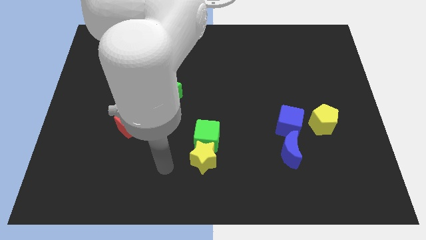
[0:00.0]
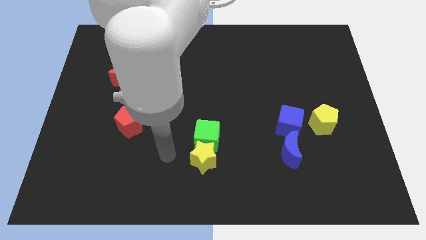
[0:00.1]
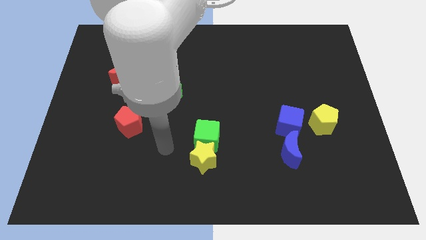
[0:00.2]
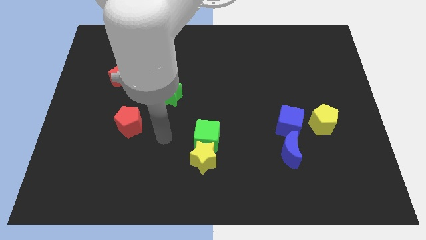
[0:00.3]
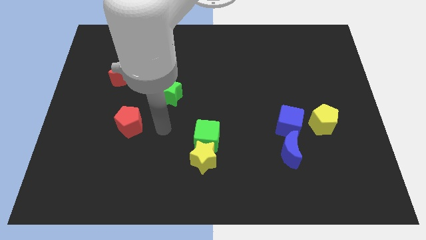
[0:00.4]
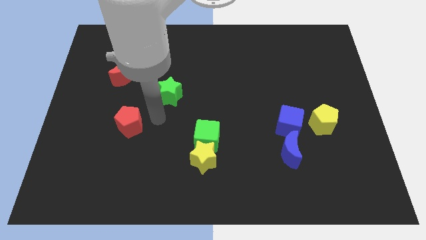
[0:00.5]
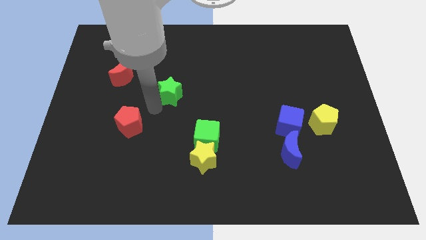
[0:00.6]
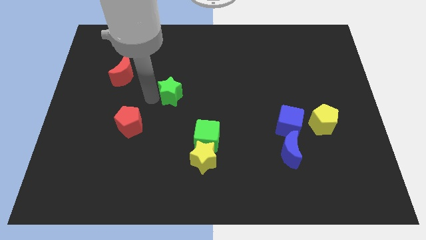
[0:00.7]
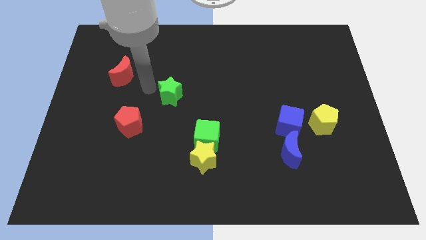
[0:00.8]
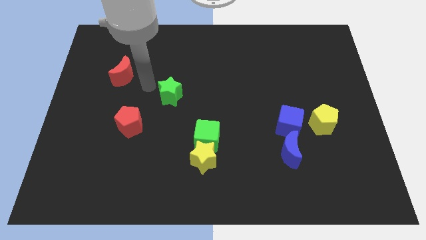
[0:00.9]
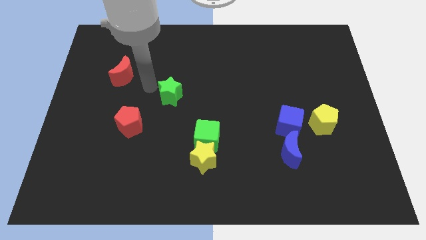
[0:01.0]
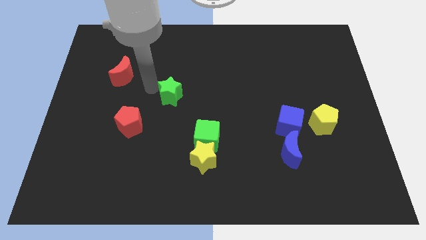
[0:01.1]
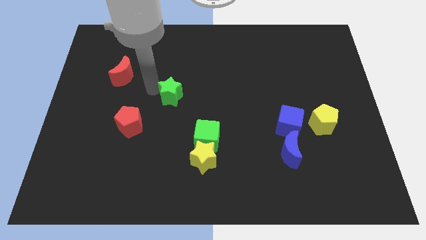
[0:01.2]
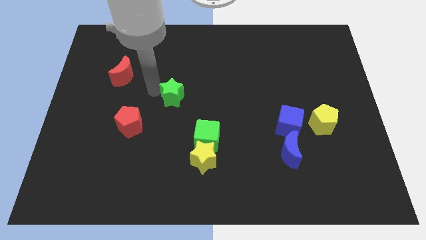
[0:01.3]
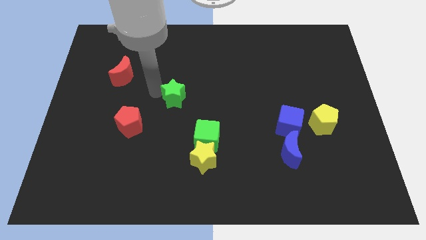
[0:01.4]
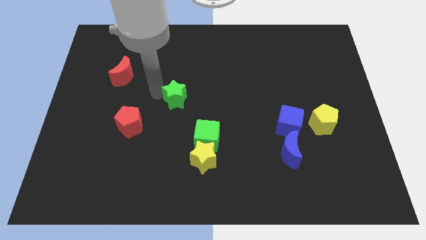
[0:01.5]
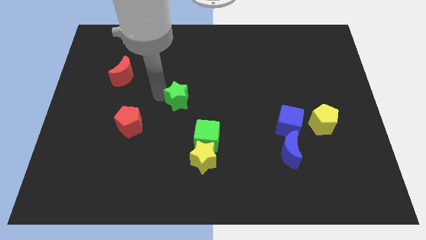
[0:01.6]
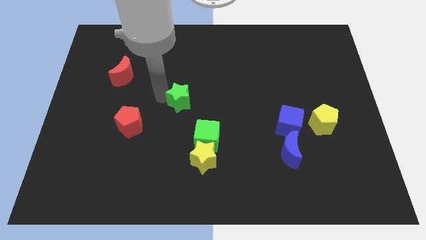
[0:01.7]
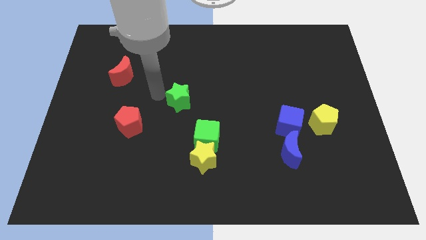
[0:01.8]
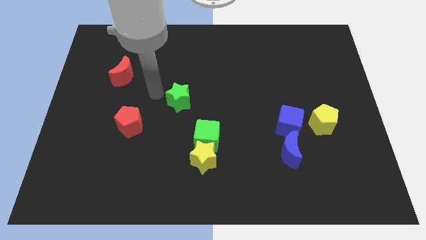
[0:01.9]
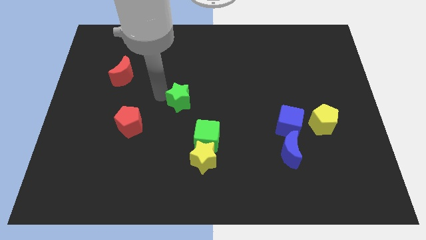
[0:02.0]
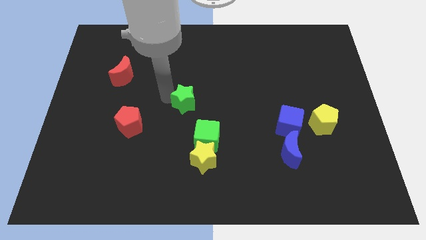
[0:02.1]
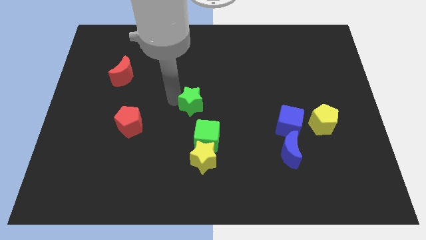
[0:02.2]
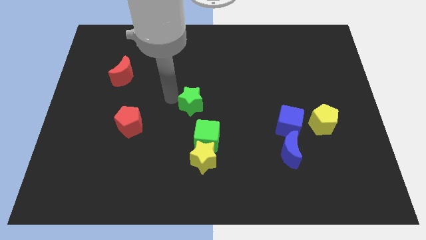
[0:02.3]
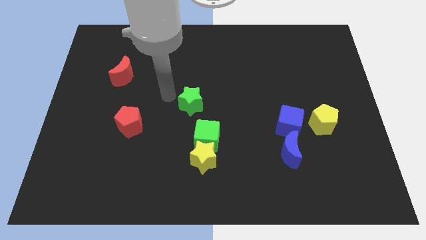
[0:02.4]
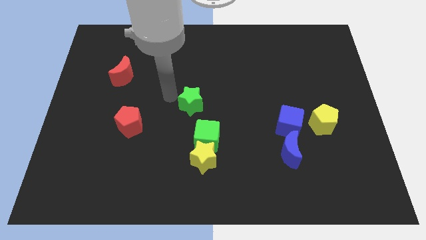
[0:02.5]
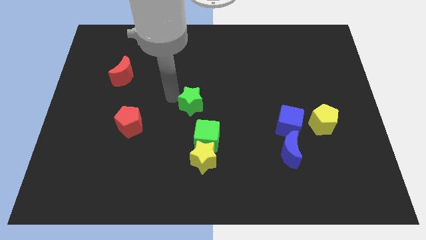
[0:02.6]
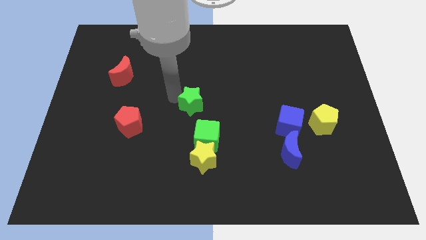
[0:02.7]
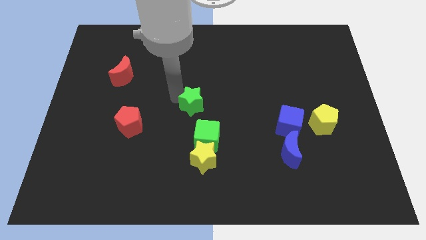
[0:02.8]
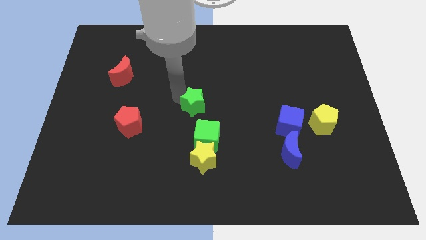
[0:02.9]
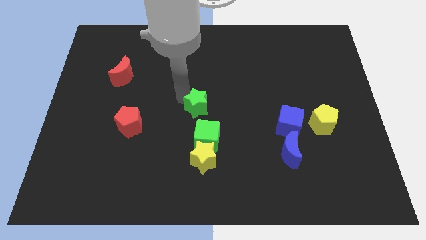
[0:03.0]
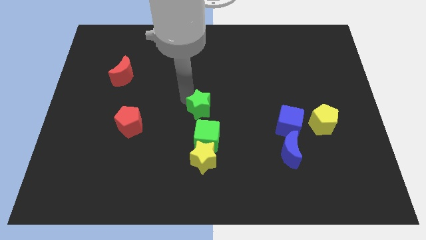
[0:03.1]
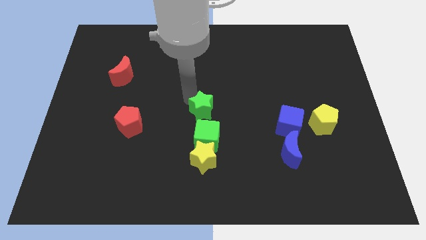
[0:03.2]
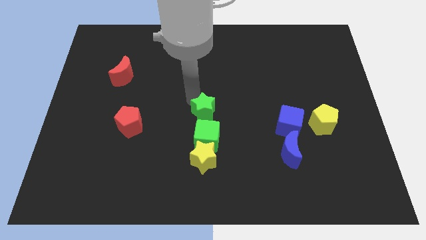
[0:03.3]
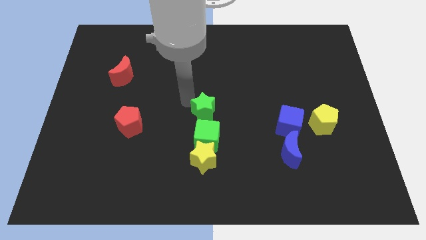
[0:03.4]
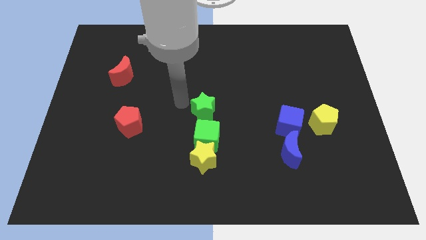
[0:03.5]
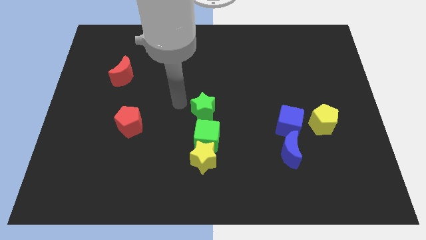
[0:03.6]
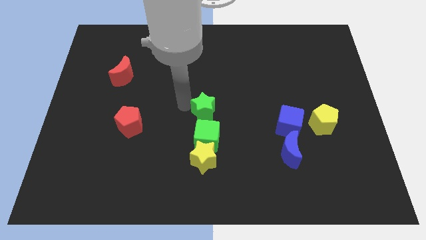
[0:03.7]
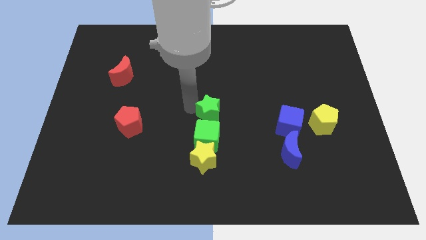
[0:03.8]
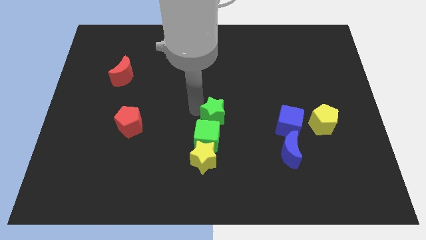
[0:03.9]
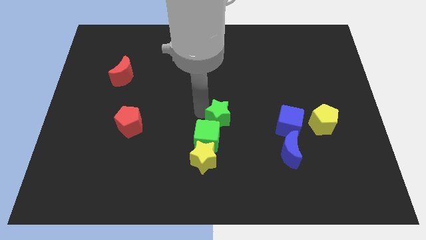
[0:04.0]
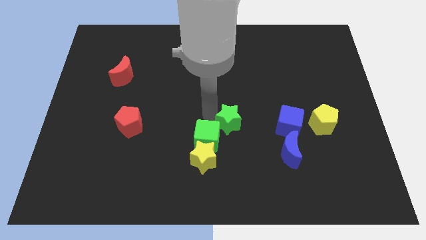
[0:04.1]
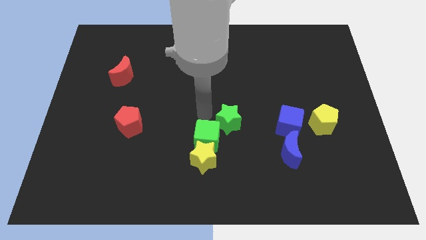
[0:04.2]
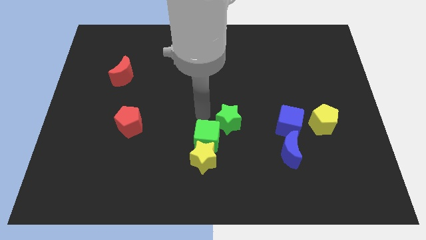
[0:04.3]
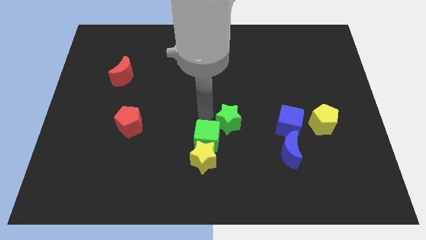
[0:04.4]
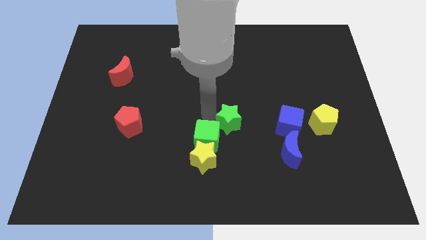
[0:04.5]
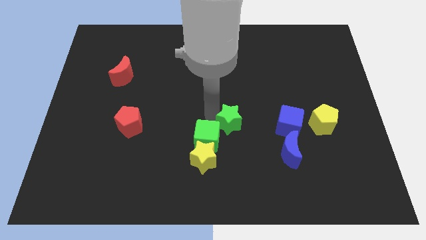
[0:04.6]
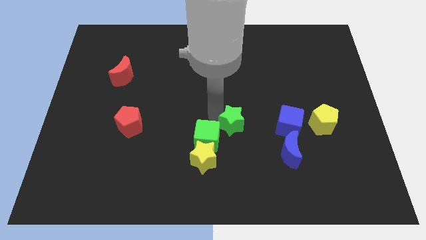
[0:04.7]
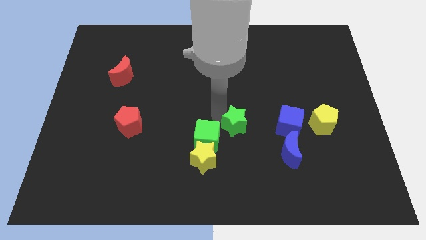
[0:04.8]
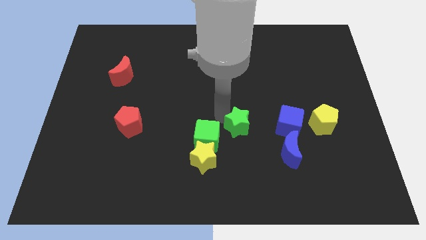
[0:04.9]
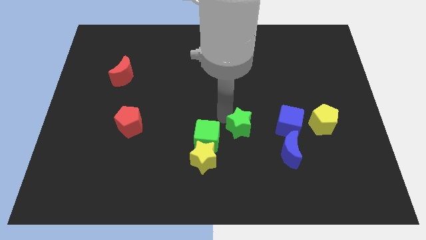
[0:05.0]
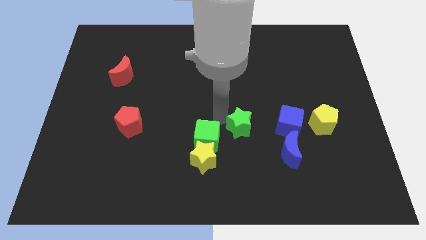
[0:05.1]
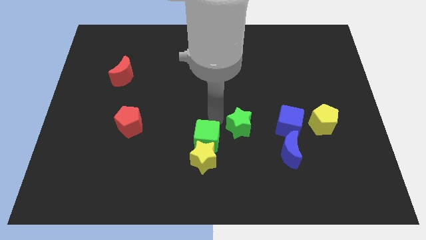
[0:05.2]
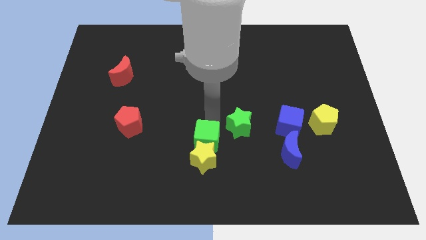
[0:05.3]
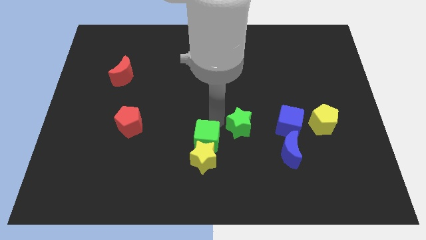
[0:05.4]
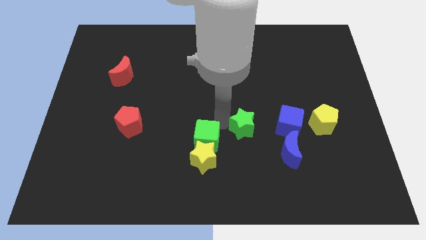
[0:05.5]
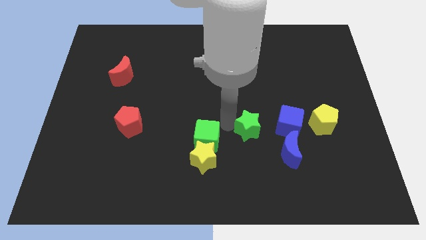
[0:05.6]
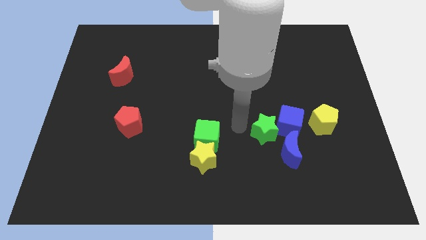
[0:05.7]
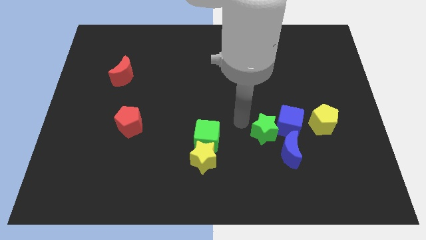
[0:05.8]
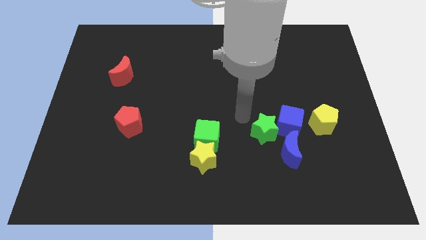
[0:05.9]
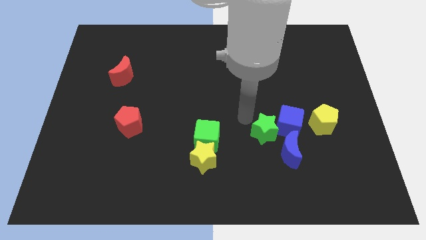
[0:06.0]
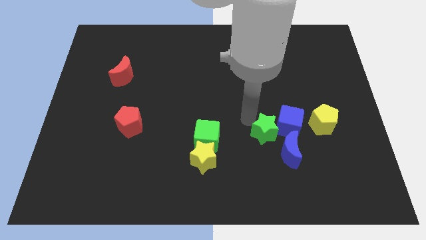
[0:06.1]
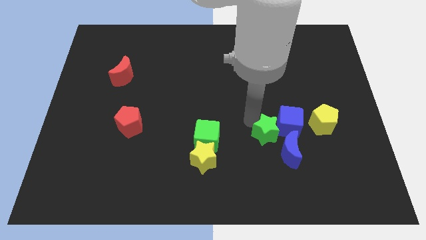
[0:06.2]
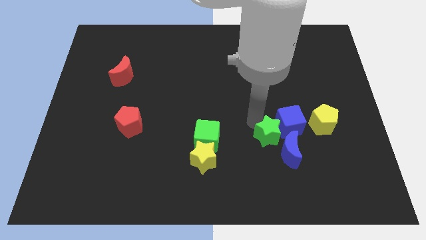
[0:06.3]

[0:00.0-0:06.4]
slide the green star to the blue moon

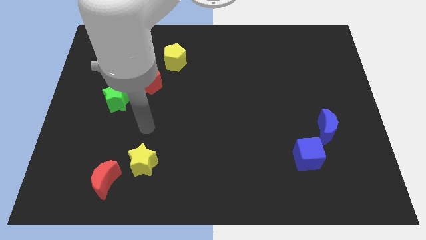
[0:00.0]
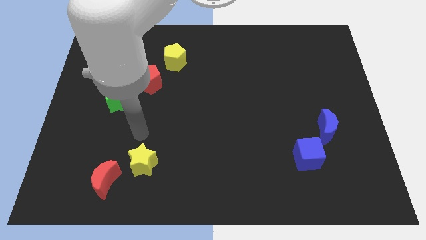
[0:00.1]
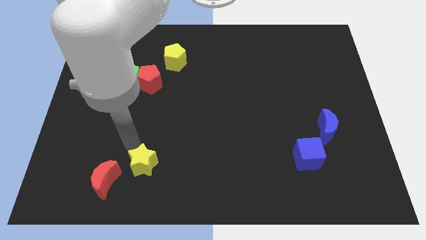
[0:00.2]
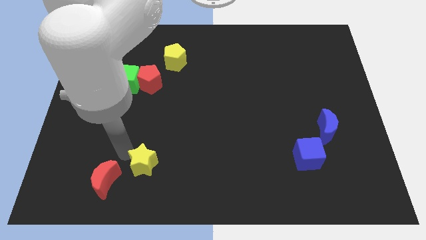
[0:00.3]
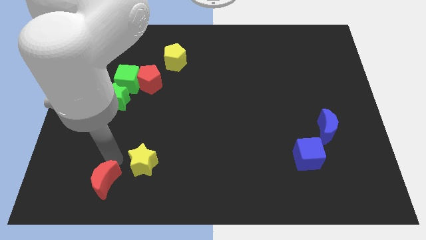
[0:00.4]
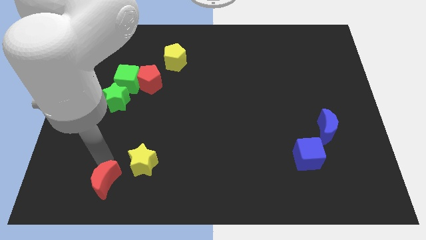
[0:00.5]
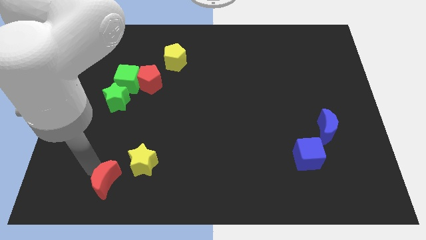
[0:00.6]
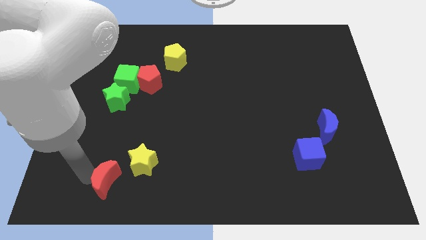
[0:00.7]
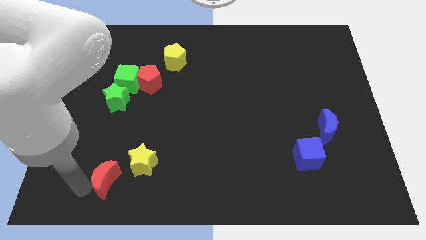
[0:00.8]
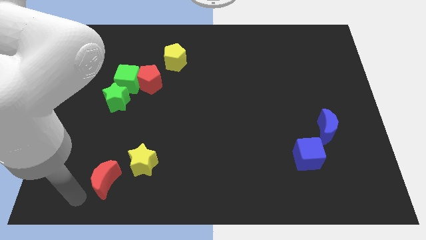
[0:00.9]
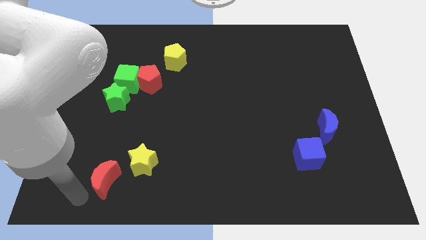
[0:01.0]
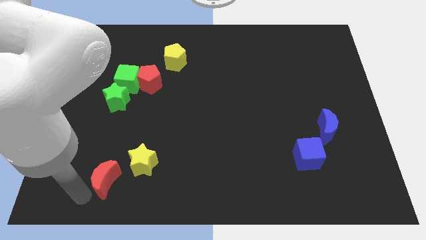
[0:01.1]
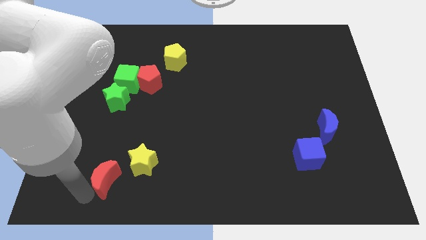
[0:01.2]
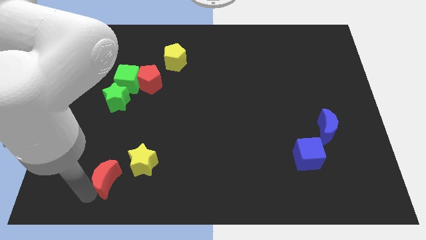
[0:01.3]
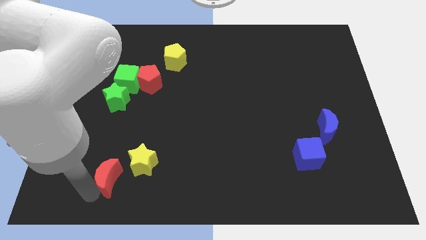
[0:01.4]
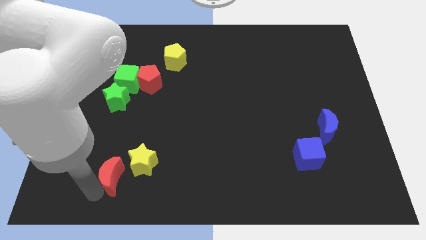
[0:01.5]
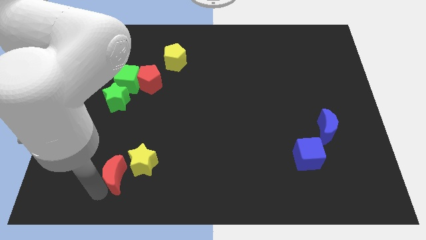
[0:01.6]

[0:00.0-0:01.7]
move the red moon next to the yellow star

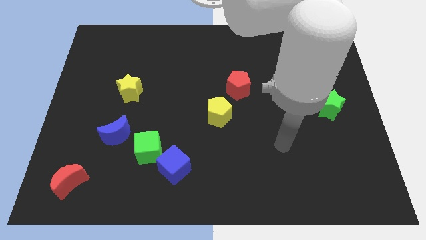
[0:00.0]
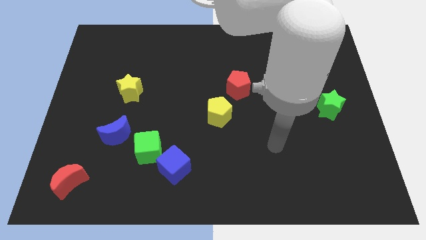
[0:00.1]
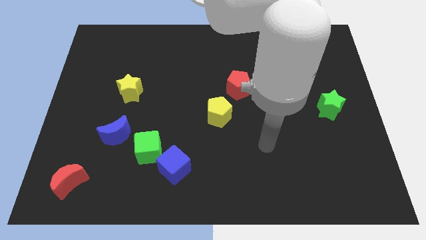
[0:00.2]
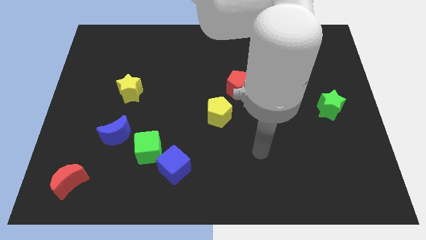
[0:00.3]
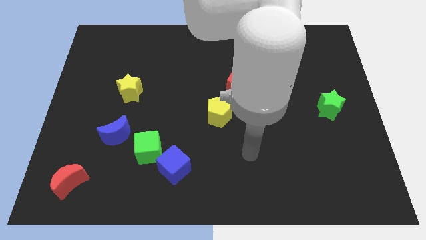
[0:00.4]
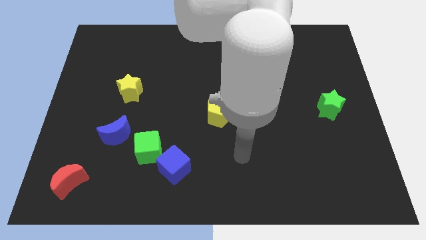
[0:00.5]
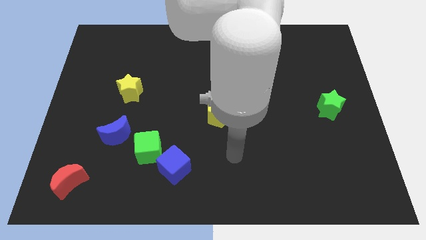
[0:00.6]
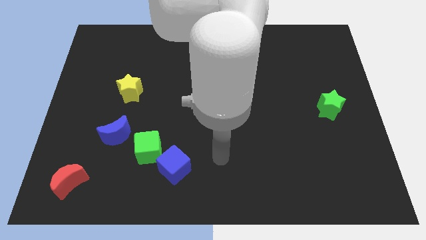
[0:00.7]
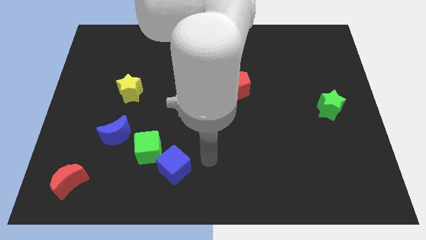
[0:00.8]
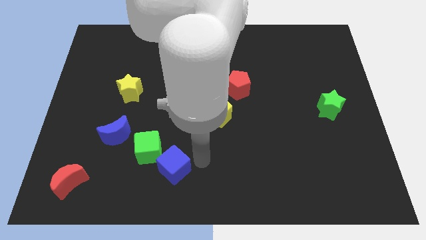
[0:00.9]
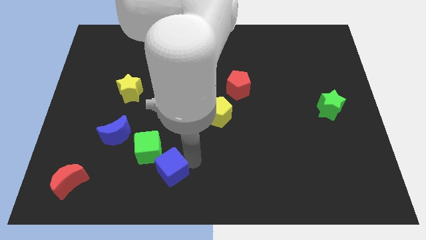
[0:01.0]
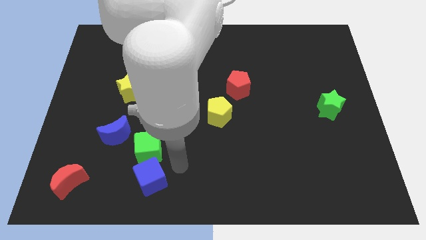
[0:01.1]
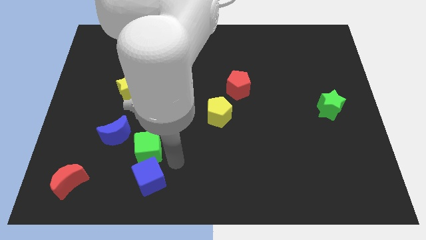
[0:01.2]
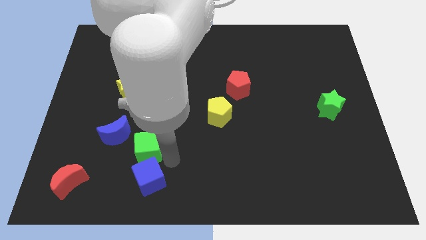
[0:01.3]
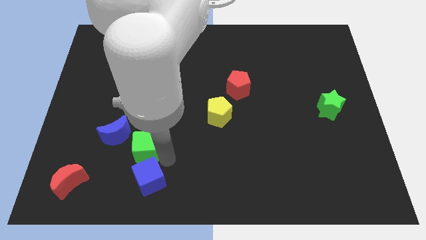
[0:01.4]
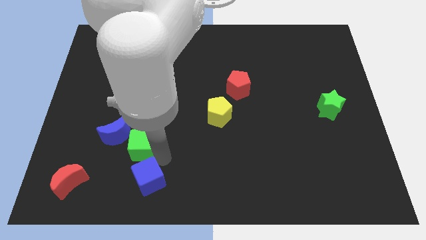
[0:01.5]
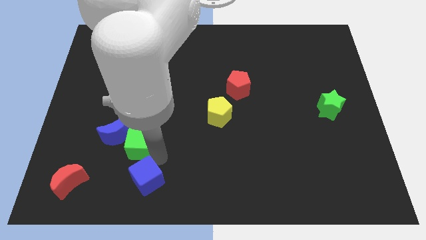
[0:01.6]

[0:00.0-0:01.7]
push the green cube next to the blue moon
